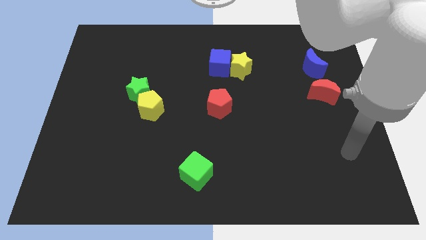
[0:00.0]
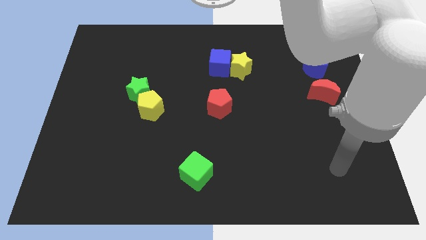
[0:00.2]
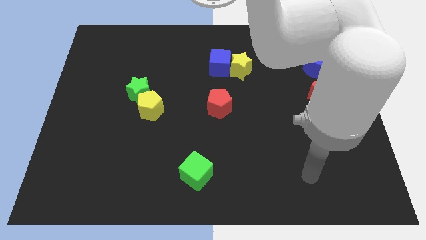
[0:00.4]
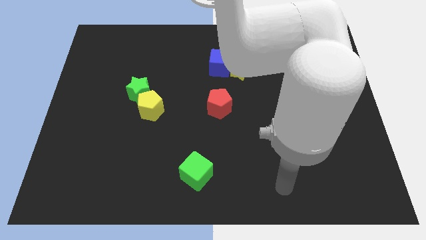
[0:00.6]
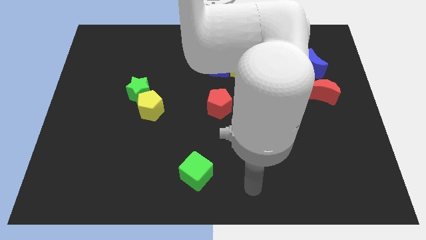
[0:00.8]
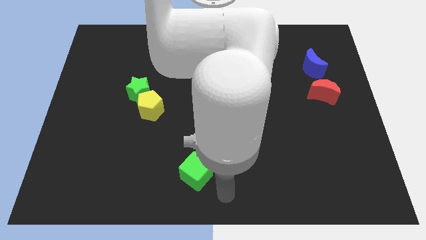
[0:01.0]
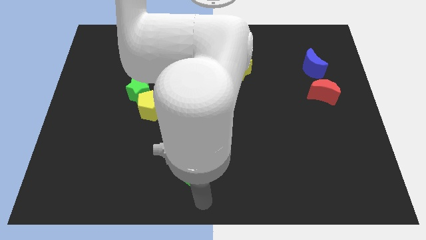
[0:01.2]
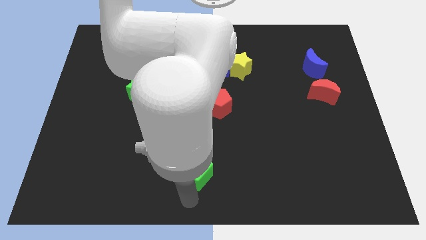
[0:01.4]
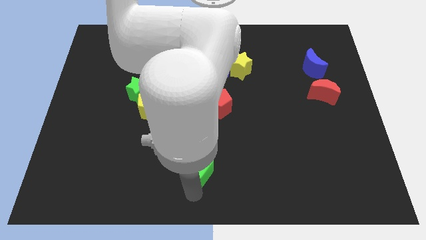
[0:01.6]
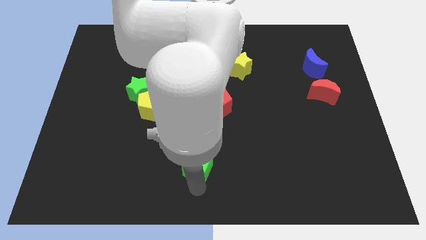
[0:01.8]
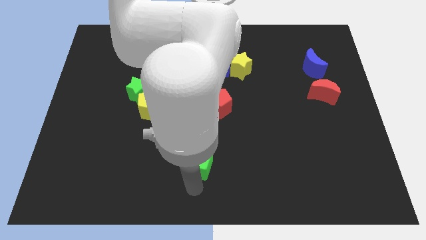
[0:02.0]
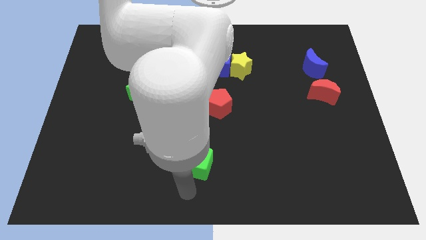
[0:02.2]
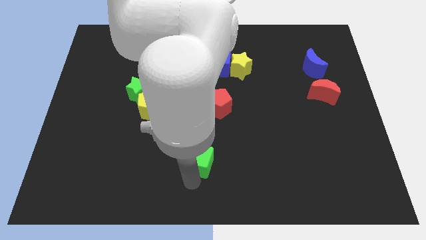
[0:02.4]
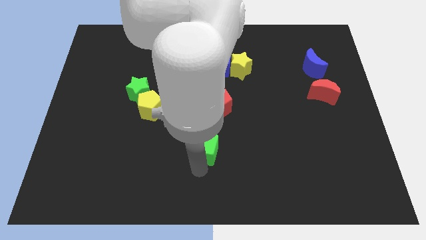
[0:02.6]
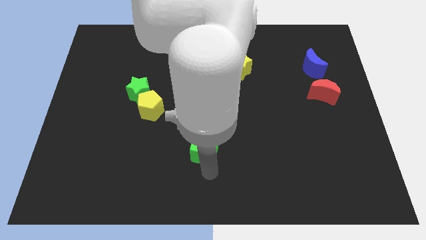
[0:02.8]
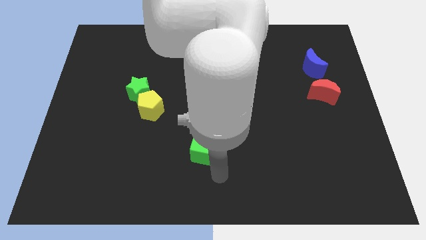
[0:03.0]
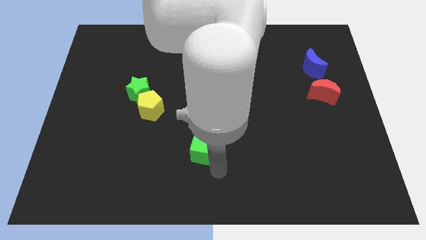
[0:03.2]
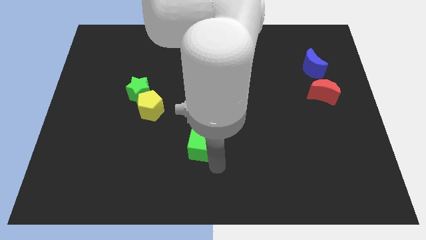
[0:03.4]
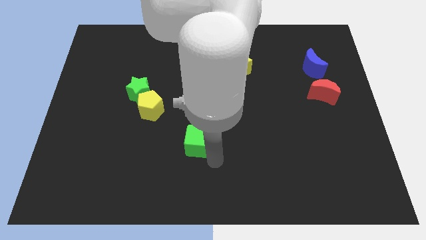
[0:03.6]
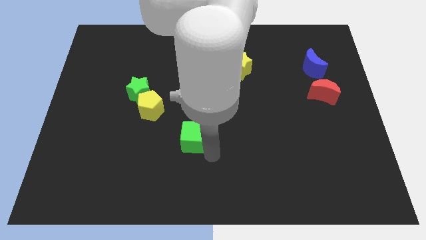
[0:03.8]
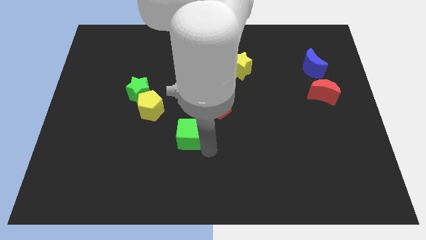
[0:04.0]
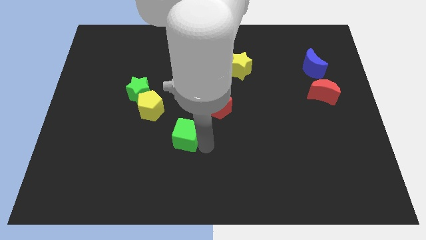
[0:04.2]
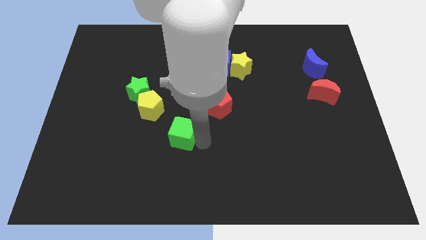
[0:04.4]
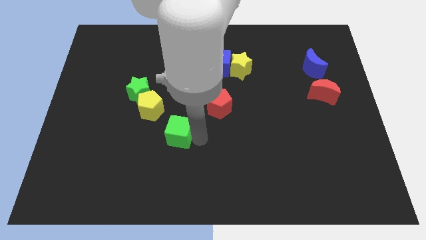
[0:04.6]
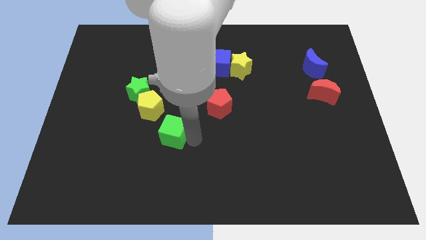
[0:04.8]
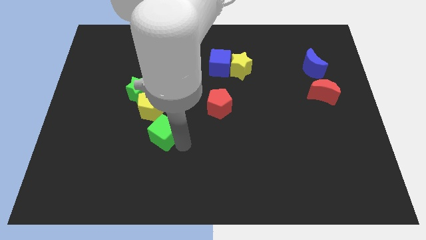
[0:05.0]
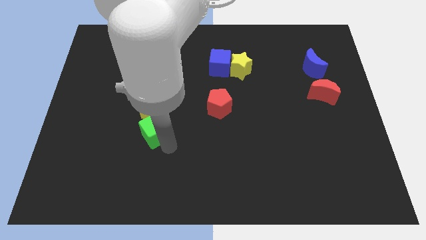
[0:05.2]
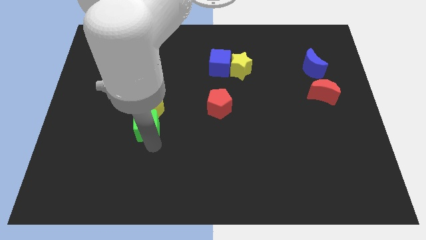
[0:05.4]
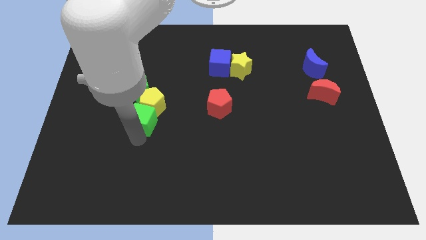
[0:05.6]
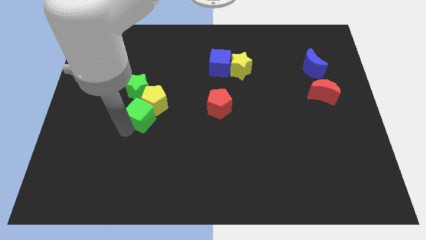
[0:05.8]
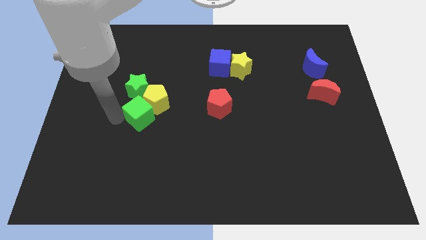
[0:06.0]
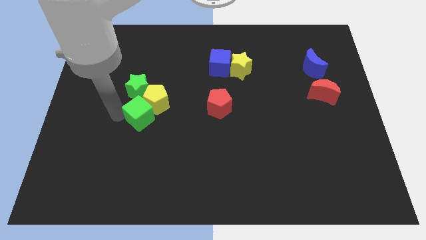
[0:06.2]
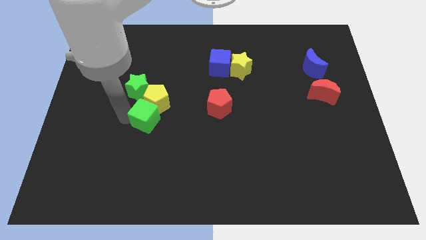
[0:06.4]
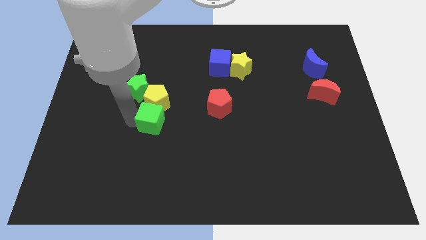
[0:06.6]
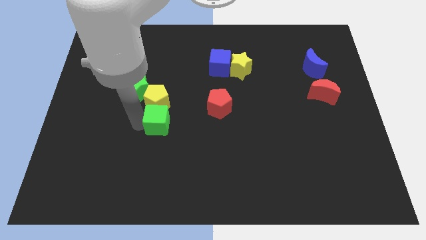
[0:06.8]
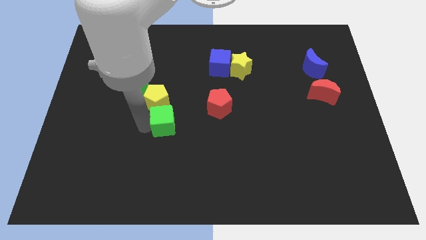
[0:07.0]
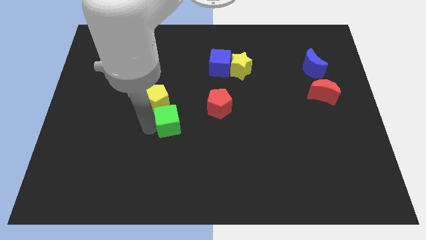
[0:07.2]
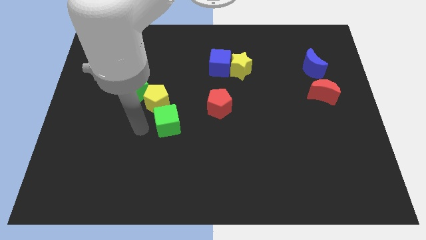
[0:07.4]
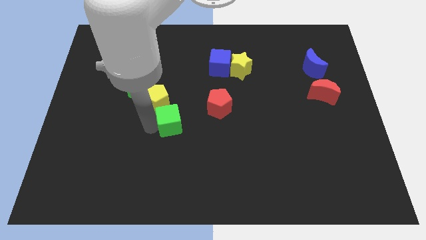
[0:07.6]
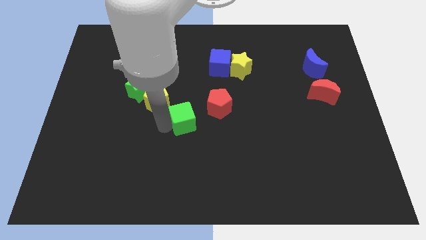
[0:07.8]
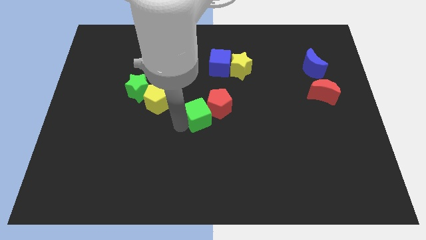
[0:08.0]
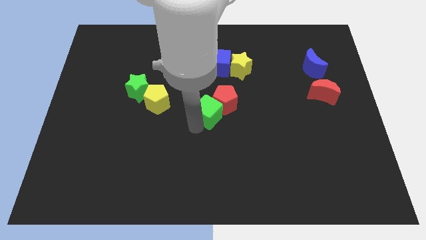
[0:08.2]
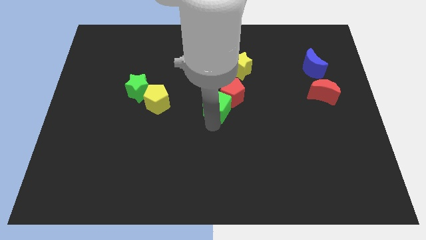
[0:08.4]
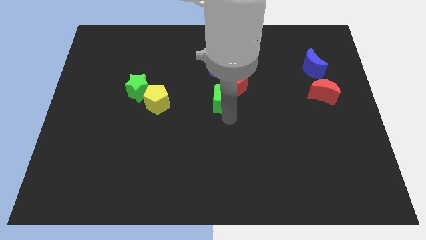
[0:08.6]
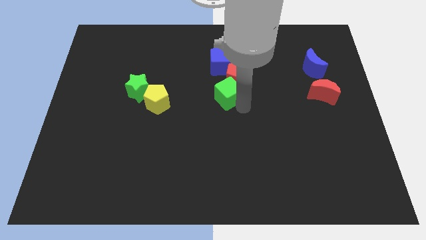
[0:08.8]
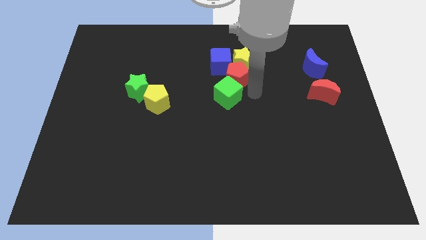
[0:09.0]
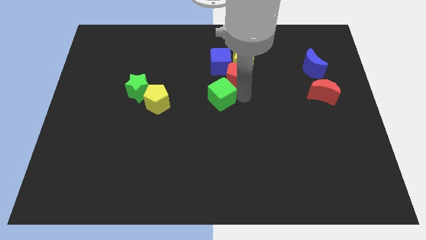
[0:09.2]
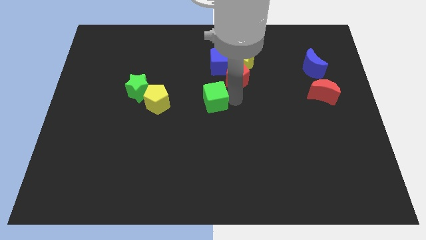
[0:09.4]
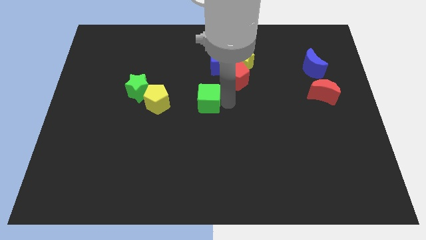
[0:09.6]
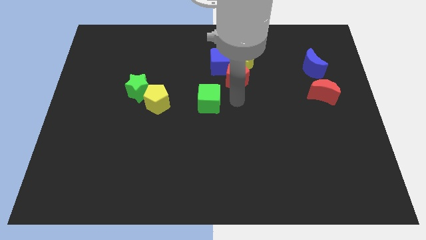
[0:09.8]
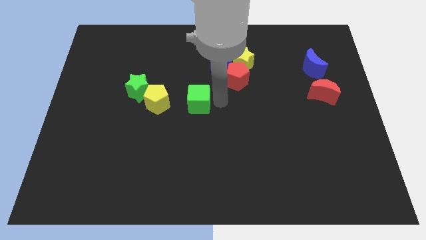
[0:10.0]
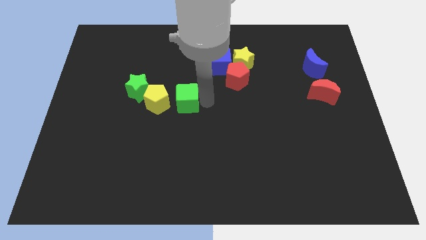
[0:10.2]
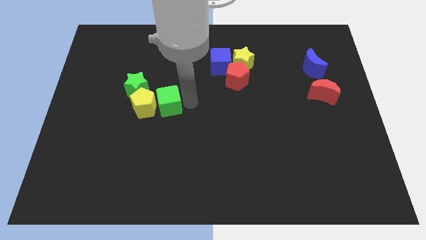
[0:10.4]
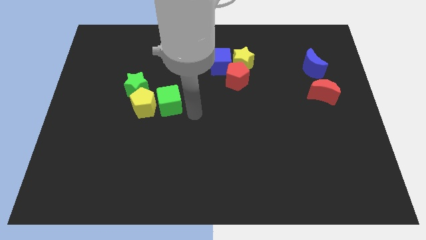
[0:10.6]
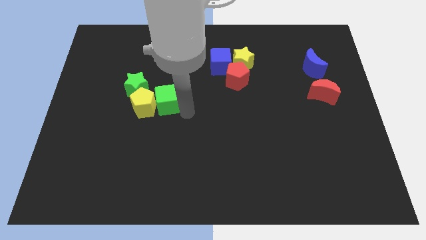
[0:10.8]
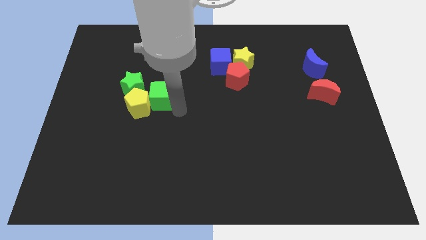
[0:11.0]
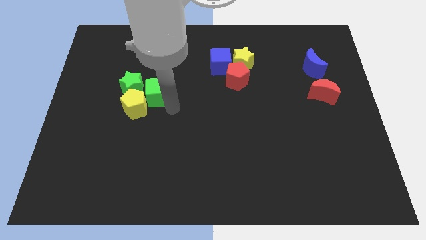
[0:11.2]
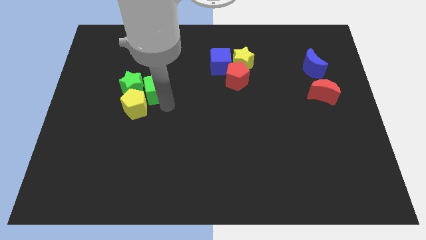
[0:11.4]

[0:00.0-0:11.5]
slide the green cube to the green star

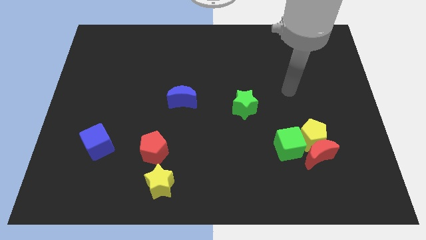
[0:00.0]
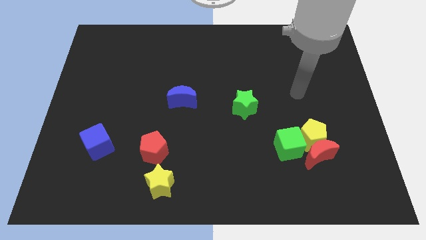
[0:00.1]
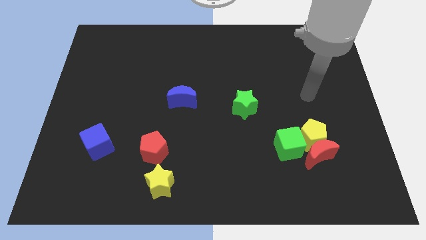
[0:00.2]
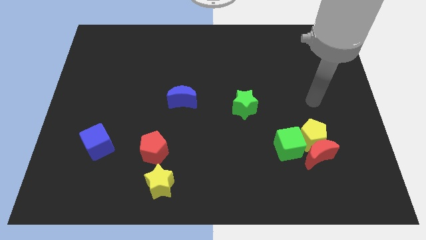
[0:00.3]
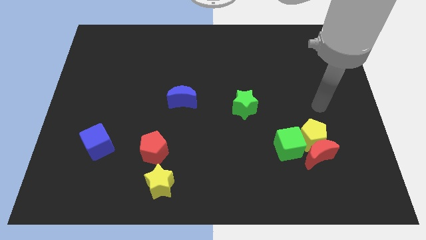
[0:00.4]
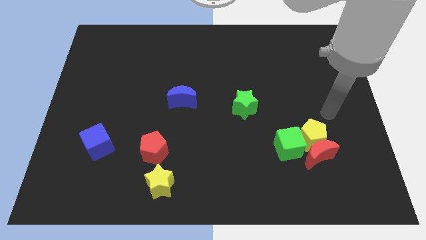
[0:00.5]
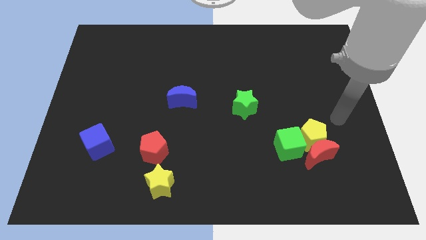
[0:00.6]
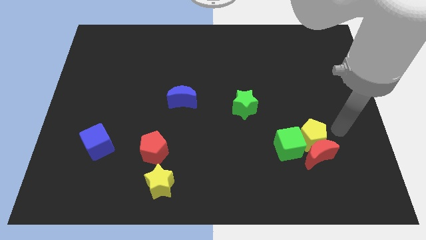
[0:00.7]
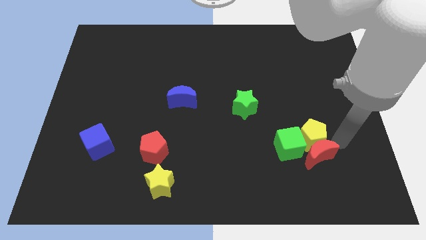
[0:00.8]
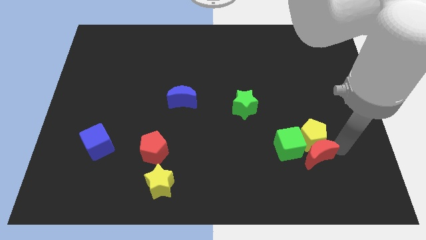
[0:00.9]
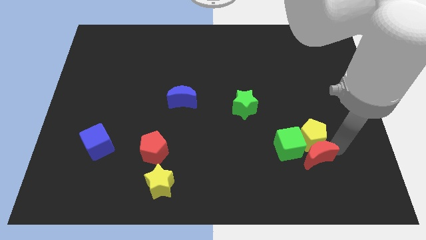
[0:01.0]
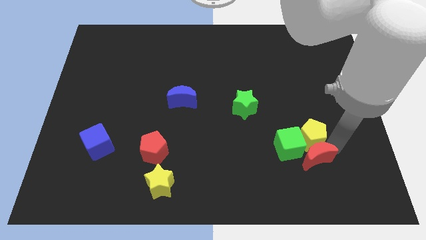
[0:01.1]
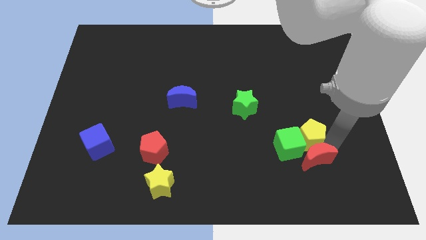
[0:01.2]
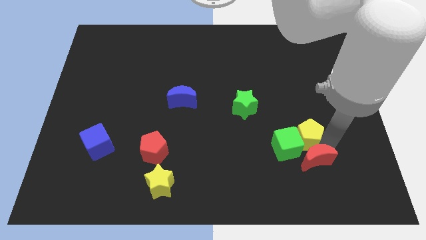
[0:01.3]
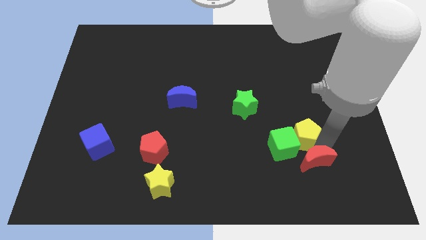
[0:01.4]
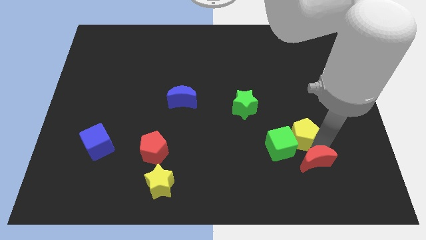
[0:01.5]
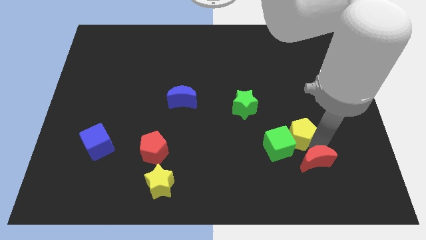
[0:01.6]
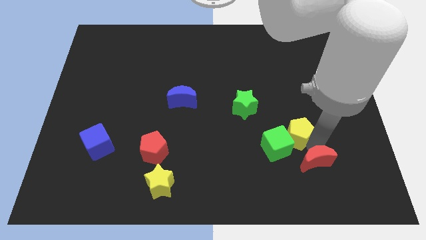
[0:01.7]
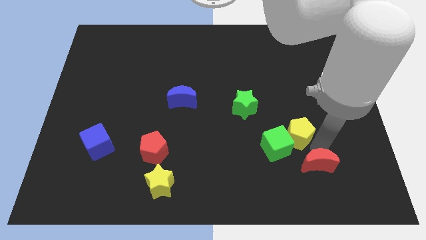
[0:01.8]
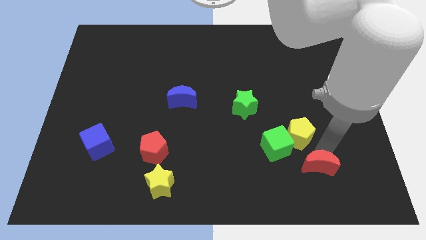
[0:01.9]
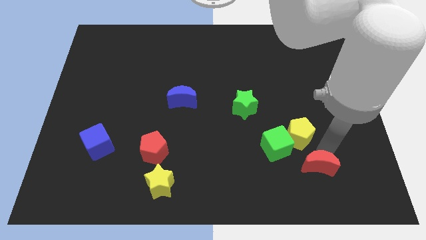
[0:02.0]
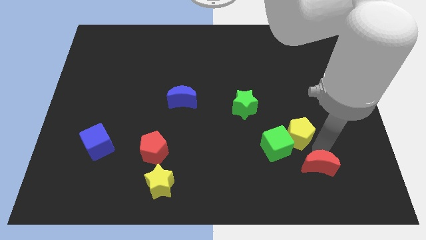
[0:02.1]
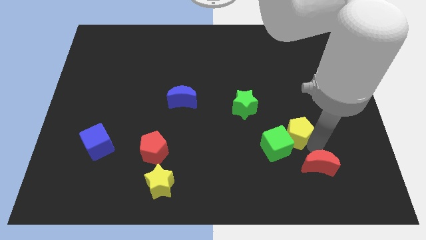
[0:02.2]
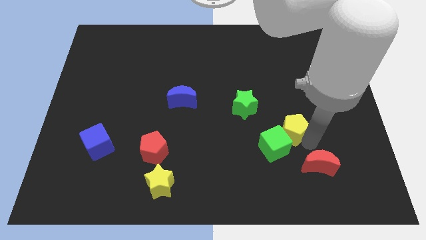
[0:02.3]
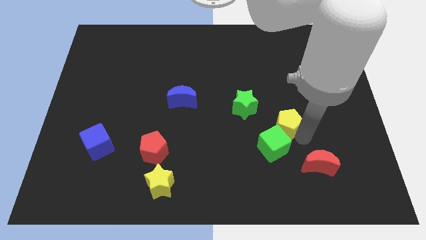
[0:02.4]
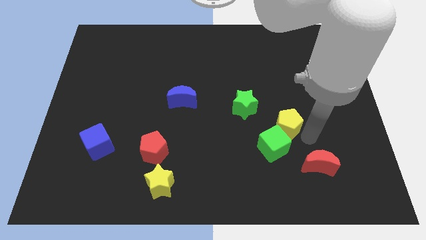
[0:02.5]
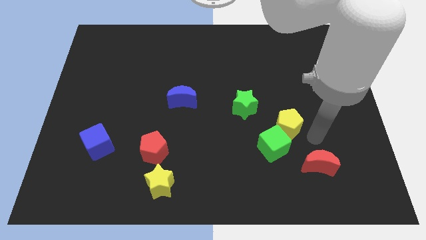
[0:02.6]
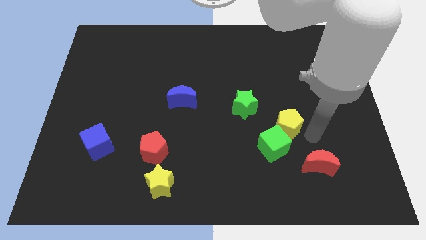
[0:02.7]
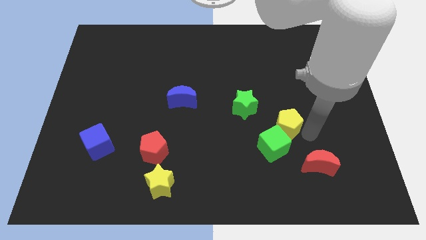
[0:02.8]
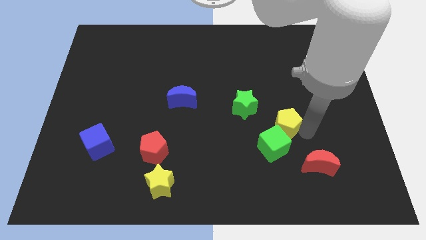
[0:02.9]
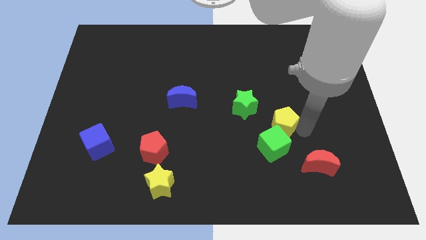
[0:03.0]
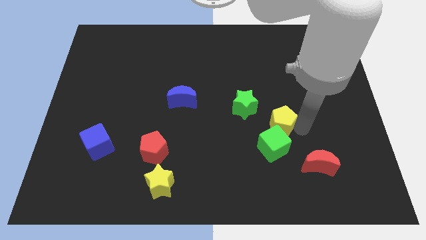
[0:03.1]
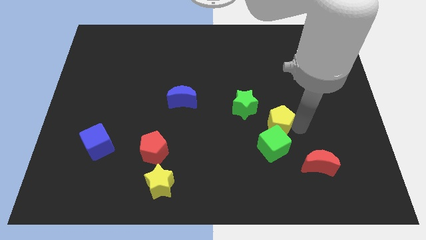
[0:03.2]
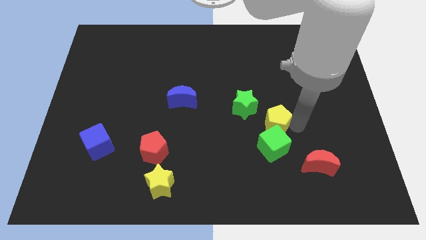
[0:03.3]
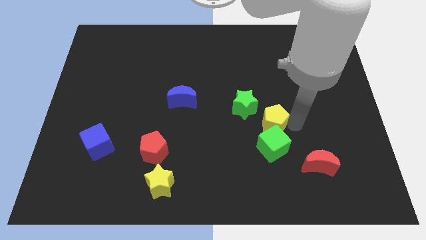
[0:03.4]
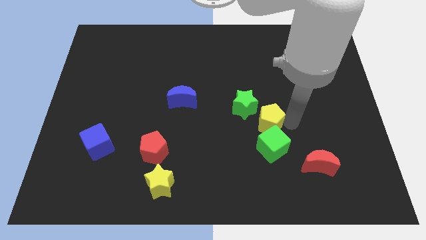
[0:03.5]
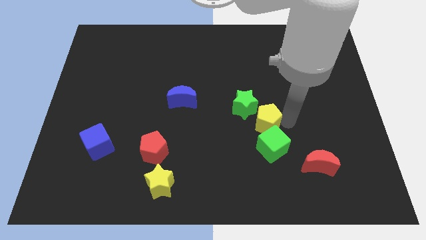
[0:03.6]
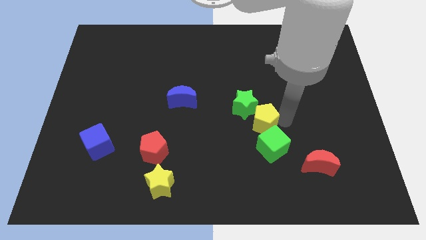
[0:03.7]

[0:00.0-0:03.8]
put the yellow pentagon next to the green star
